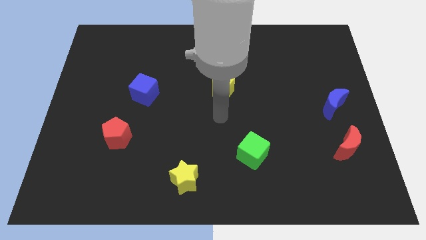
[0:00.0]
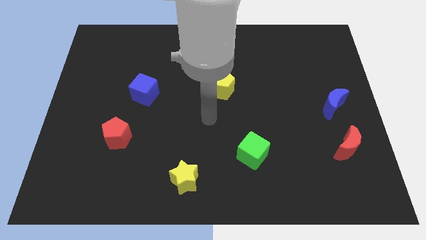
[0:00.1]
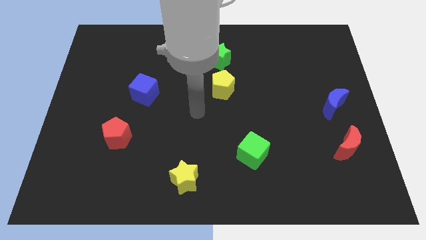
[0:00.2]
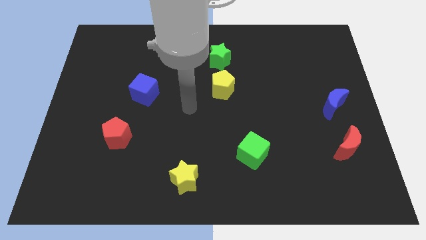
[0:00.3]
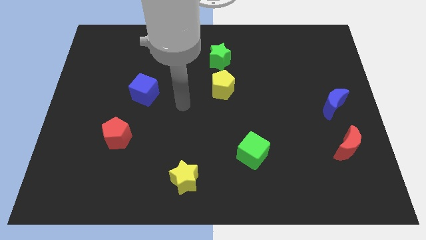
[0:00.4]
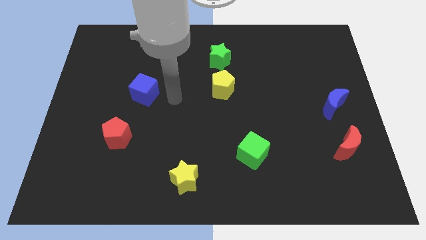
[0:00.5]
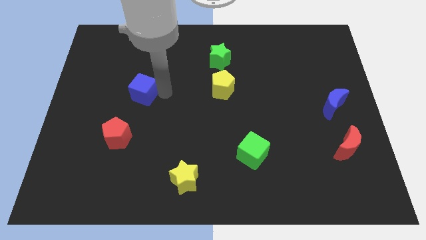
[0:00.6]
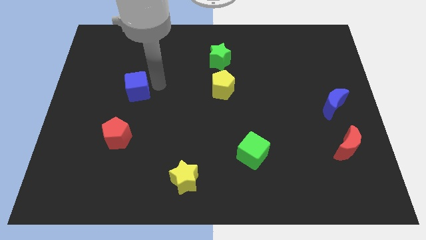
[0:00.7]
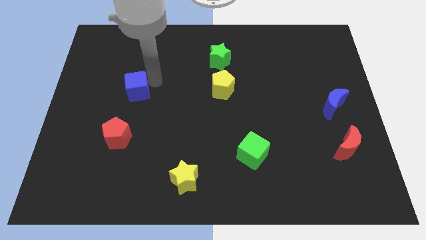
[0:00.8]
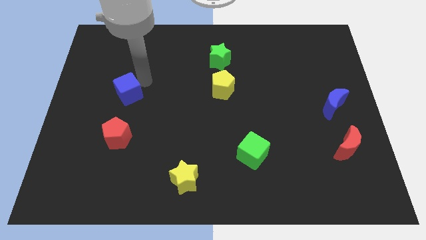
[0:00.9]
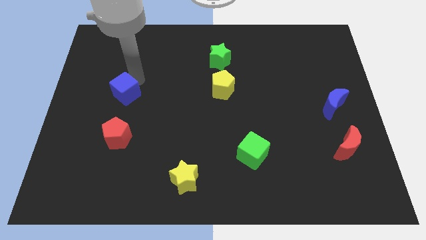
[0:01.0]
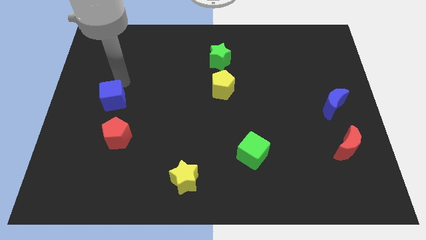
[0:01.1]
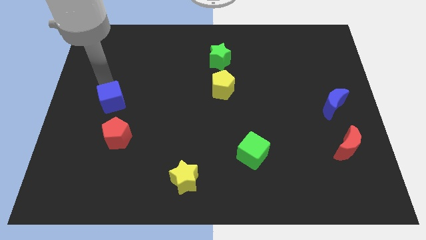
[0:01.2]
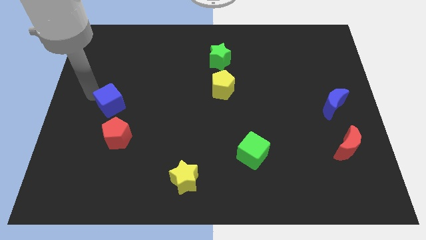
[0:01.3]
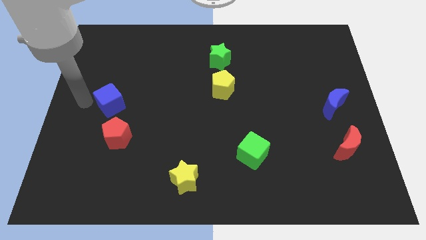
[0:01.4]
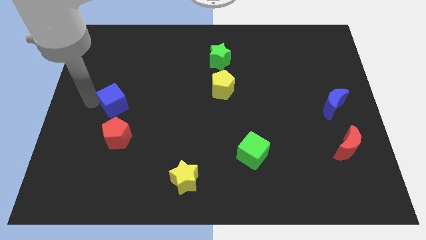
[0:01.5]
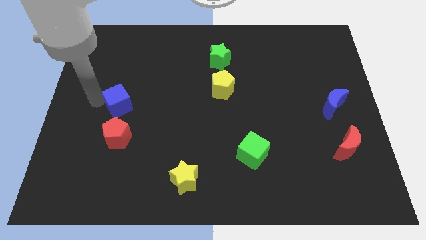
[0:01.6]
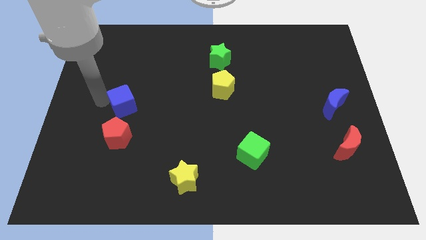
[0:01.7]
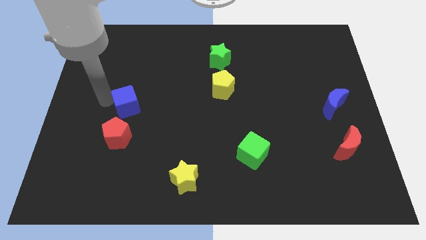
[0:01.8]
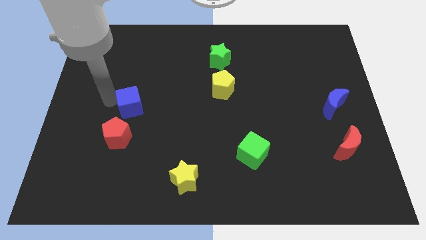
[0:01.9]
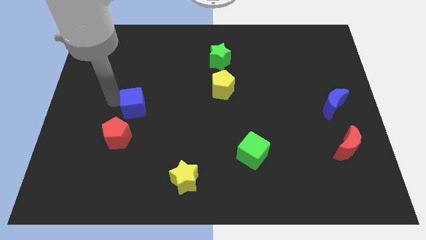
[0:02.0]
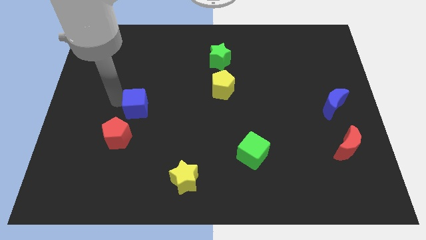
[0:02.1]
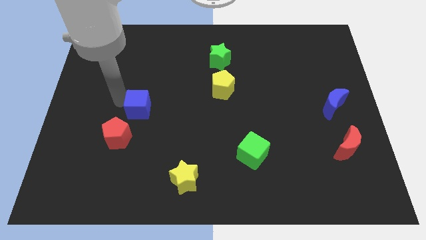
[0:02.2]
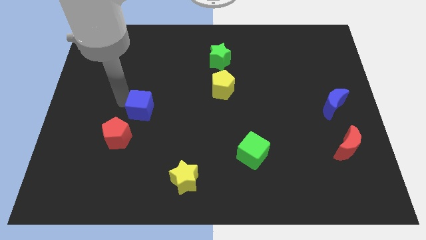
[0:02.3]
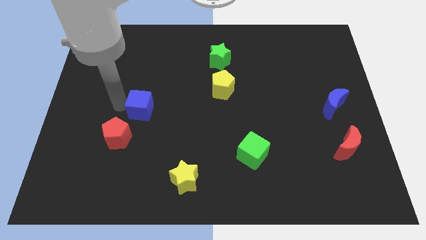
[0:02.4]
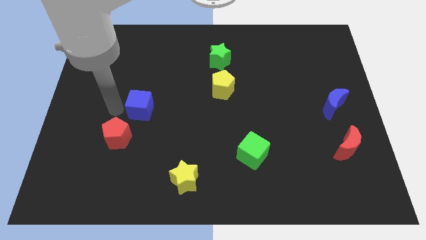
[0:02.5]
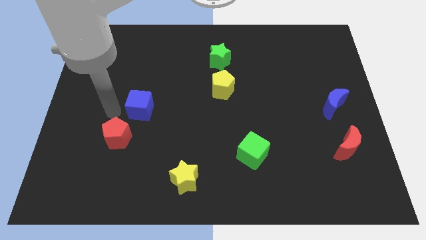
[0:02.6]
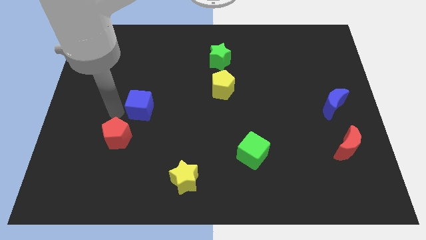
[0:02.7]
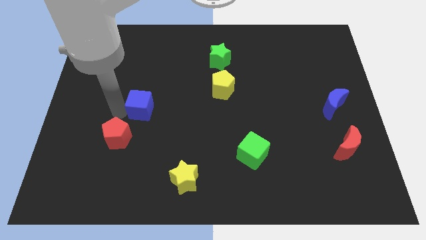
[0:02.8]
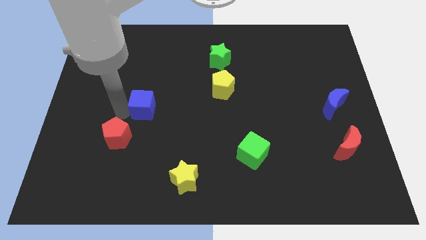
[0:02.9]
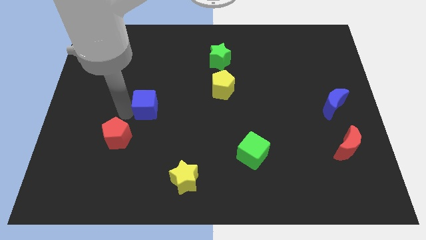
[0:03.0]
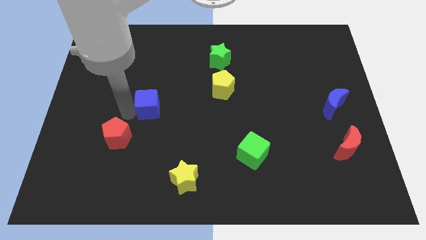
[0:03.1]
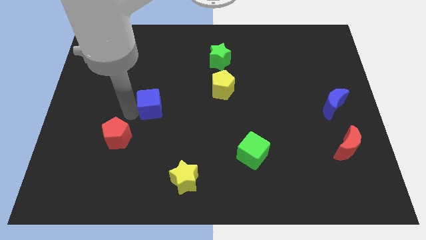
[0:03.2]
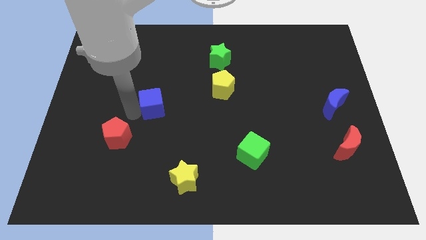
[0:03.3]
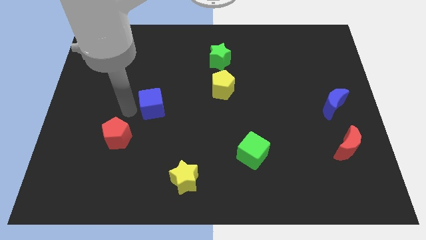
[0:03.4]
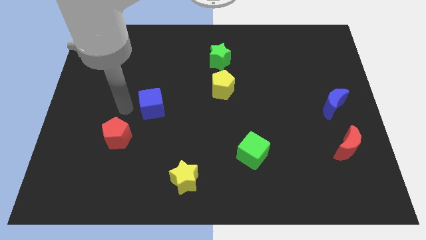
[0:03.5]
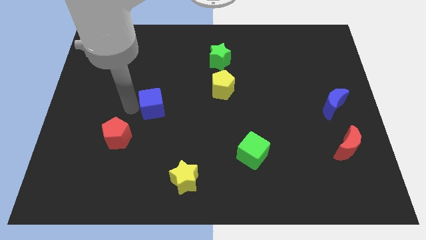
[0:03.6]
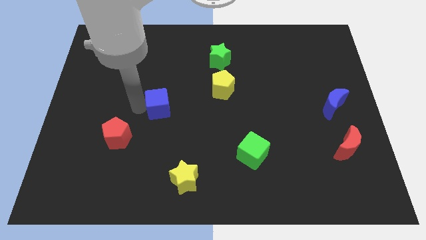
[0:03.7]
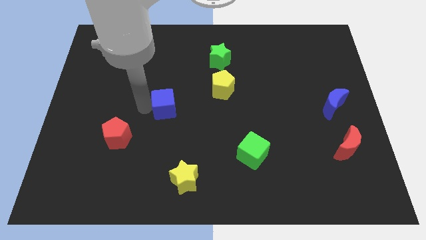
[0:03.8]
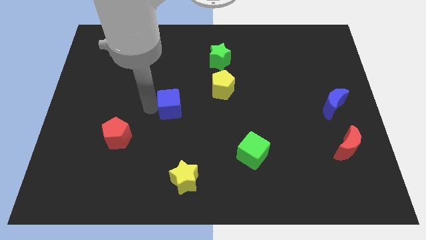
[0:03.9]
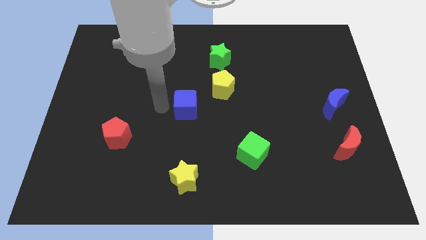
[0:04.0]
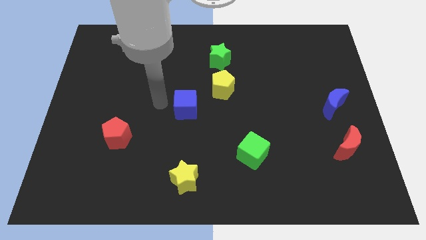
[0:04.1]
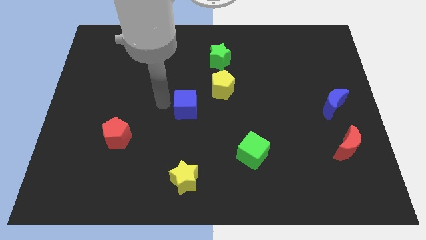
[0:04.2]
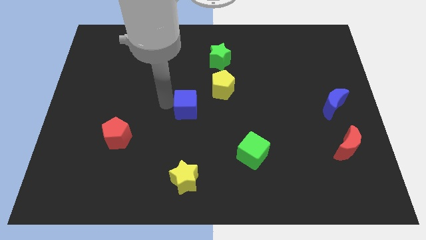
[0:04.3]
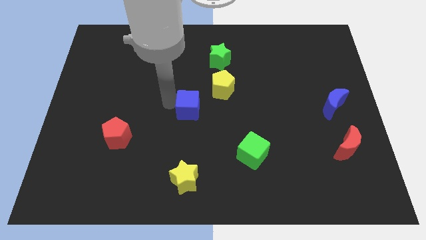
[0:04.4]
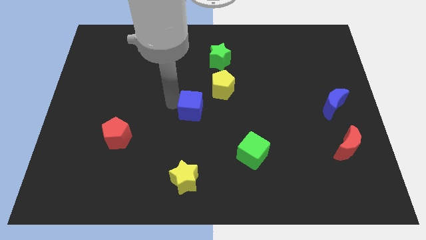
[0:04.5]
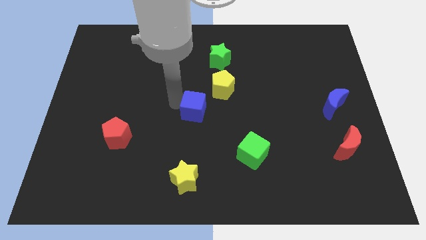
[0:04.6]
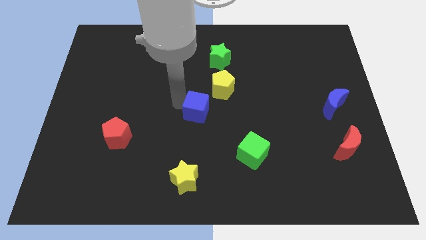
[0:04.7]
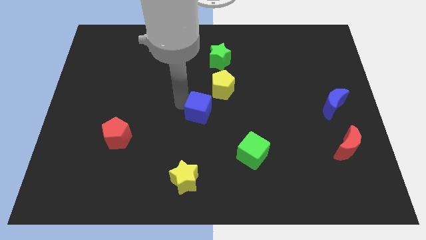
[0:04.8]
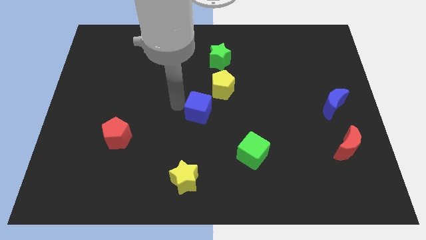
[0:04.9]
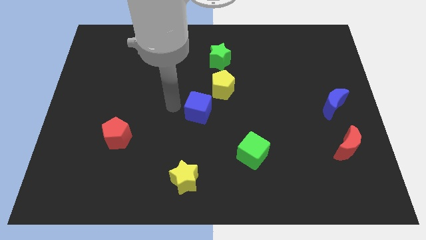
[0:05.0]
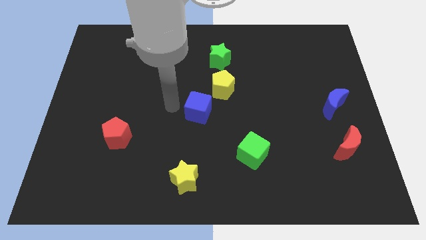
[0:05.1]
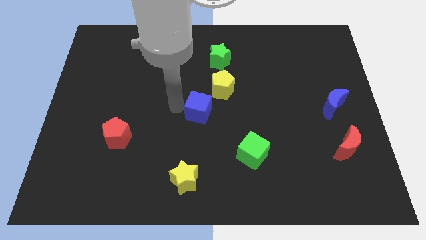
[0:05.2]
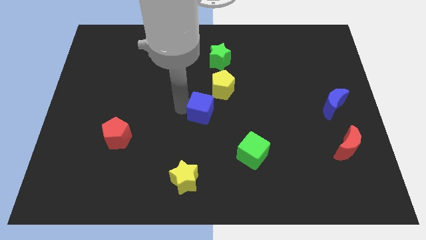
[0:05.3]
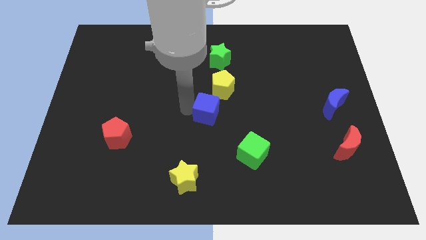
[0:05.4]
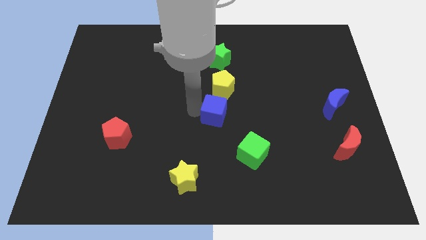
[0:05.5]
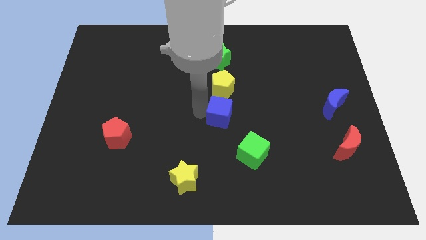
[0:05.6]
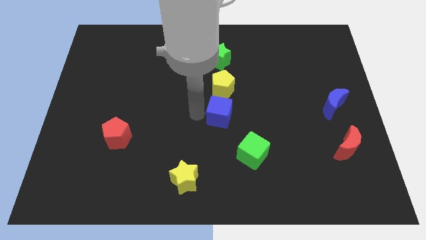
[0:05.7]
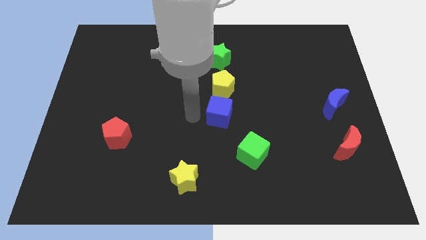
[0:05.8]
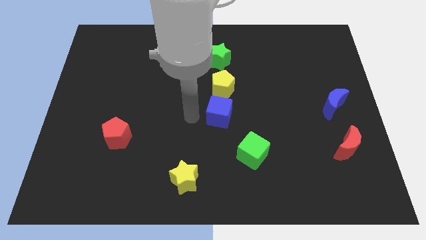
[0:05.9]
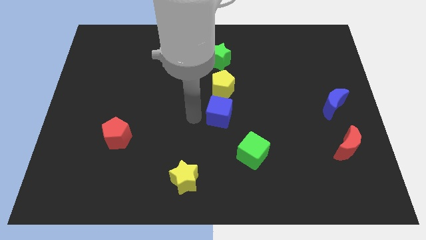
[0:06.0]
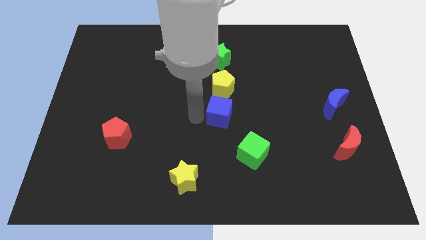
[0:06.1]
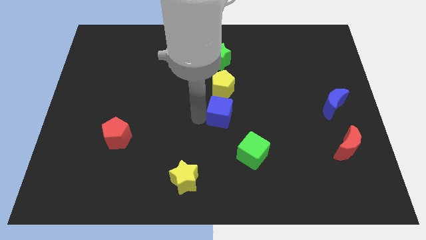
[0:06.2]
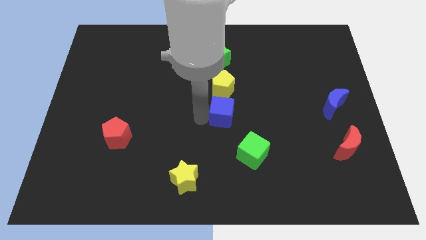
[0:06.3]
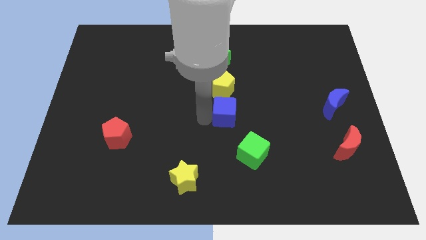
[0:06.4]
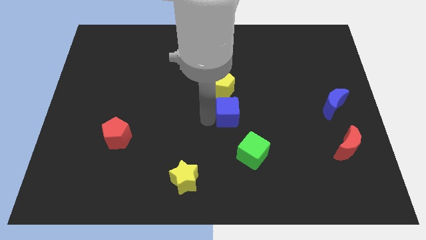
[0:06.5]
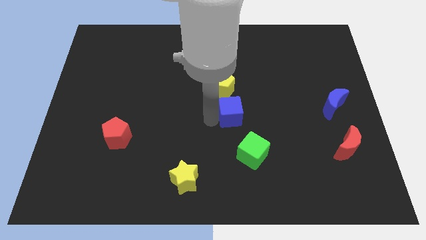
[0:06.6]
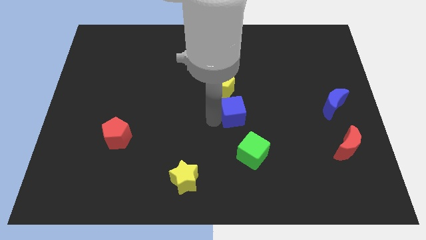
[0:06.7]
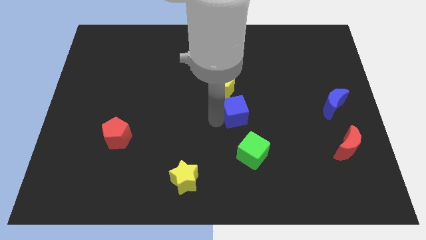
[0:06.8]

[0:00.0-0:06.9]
move the blue cube right

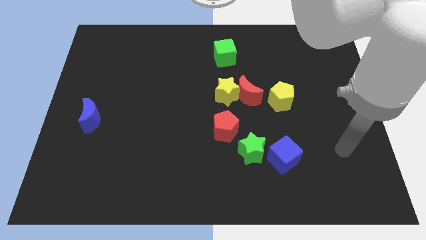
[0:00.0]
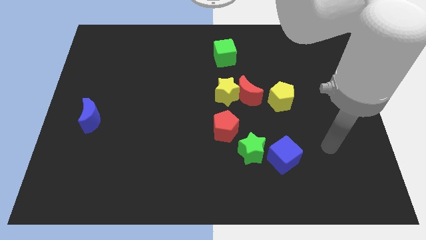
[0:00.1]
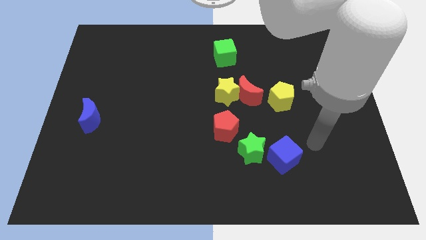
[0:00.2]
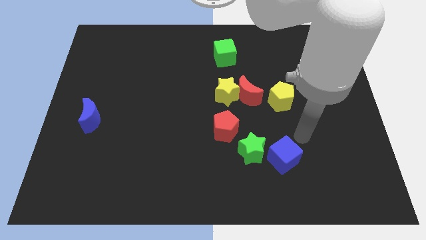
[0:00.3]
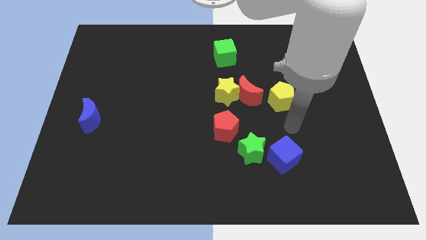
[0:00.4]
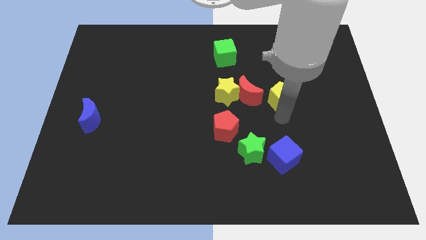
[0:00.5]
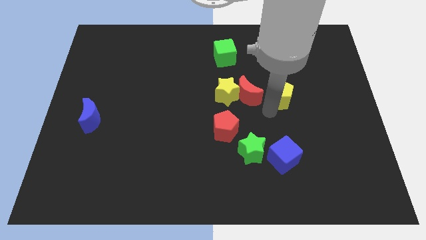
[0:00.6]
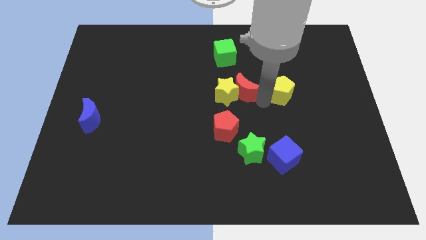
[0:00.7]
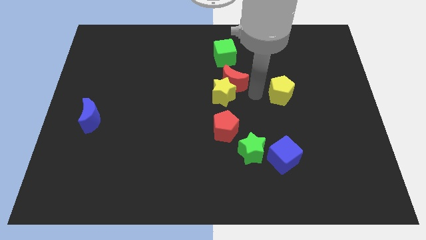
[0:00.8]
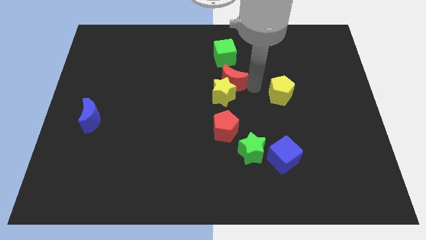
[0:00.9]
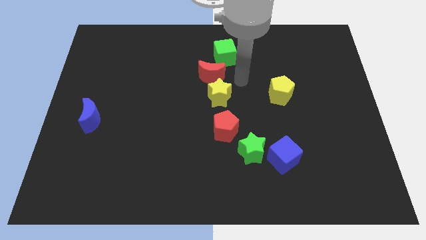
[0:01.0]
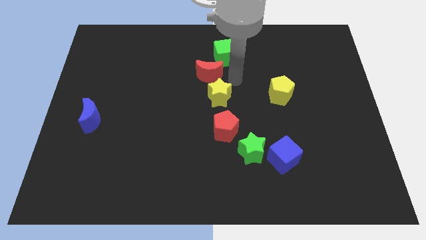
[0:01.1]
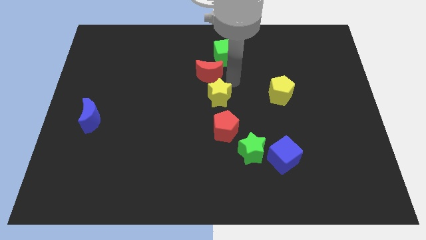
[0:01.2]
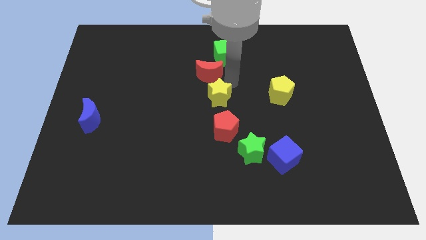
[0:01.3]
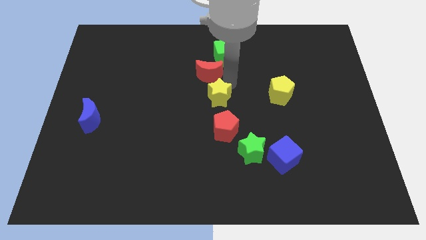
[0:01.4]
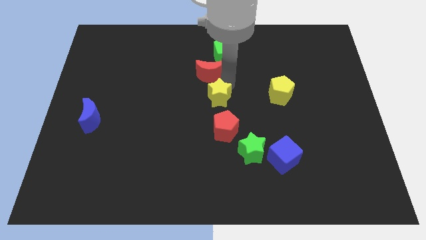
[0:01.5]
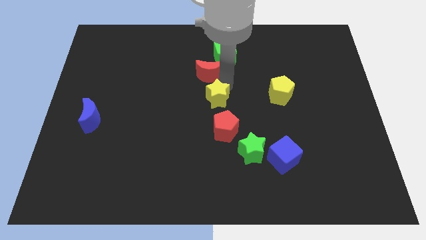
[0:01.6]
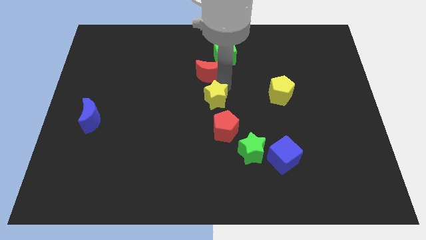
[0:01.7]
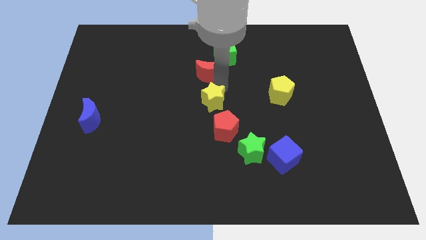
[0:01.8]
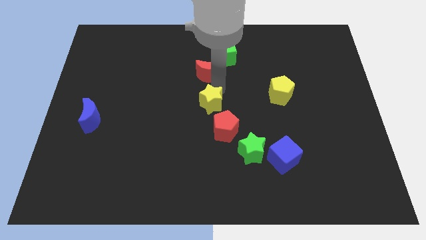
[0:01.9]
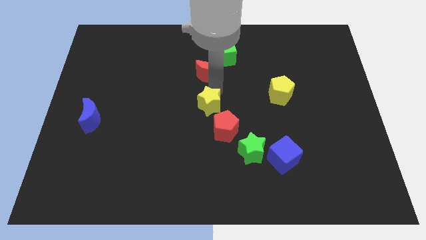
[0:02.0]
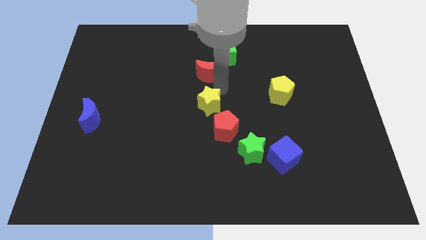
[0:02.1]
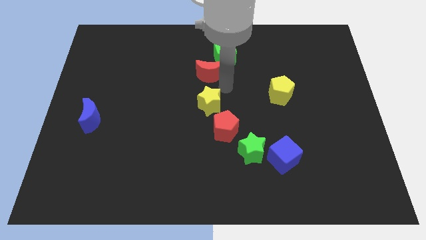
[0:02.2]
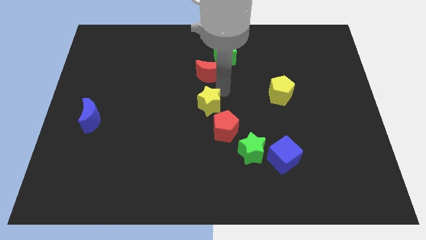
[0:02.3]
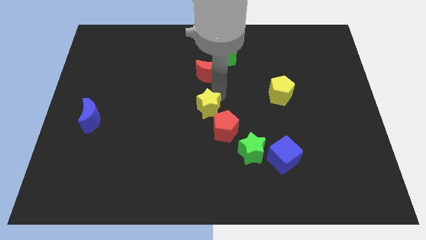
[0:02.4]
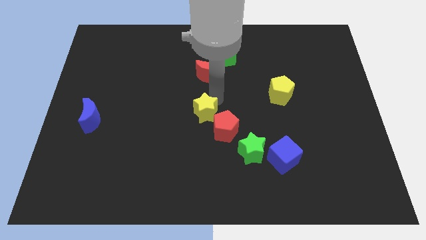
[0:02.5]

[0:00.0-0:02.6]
slightly slide the yellow star diagonally down and left
